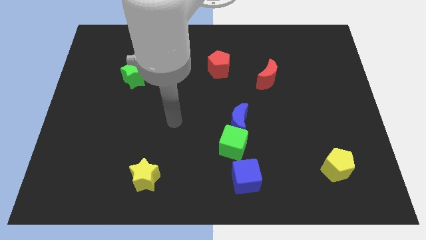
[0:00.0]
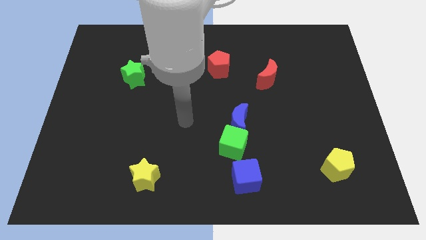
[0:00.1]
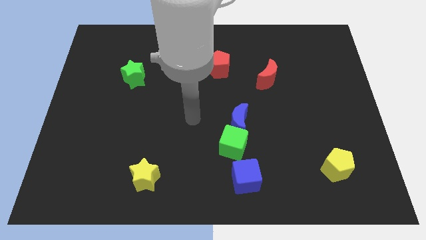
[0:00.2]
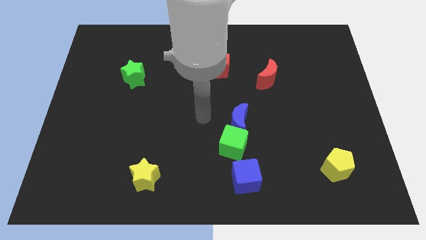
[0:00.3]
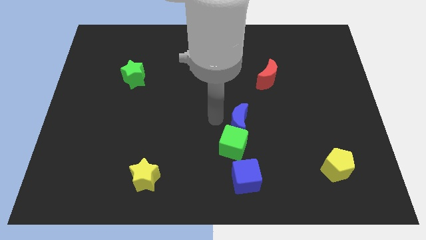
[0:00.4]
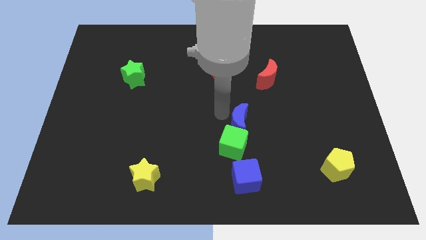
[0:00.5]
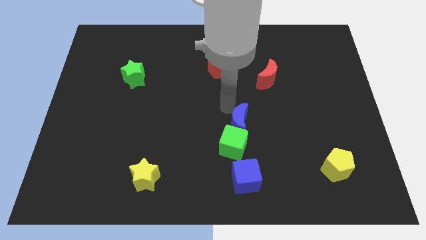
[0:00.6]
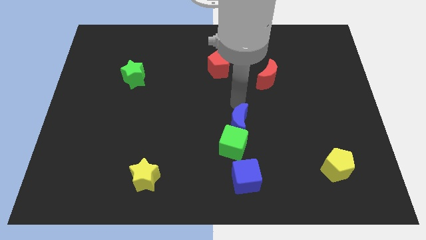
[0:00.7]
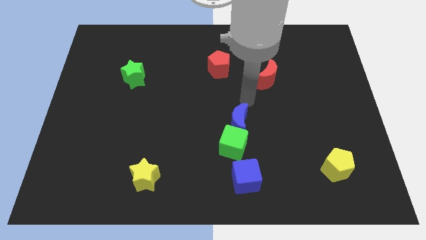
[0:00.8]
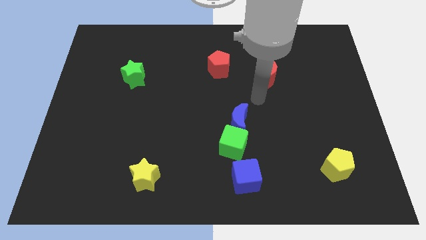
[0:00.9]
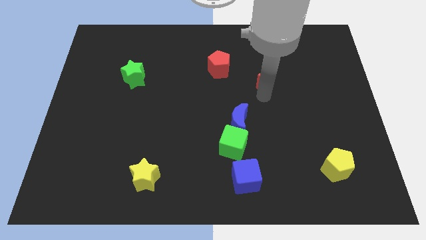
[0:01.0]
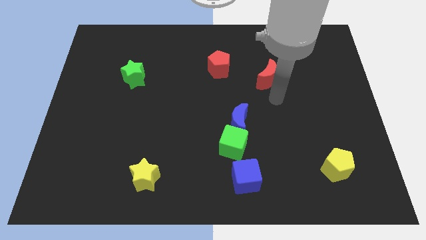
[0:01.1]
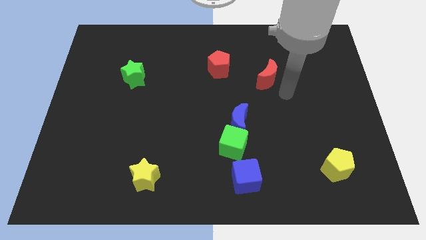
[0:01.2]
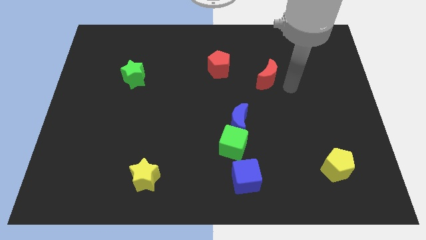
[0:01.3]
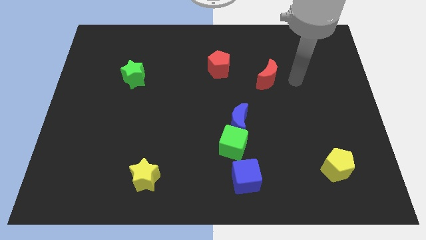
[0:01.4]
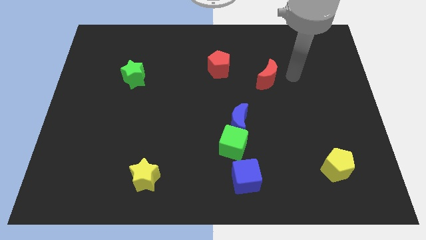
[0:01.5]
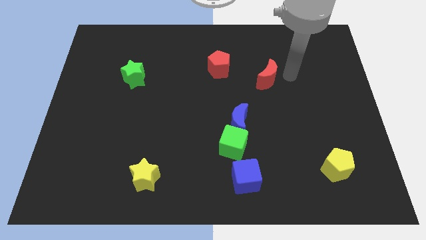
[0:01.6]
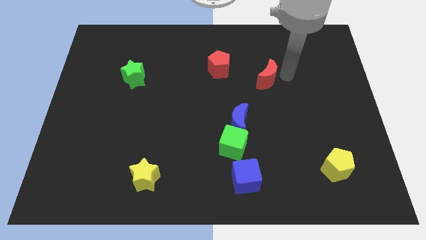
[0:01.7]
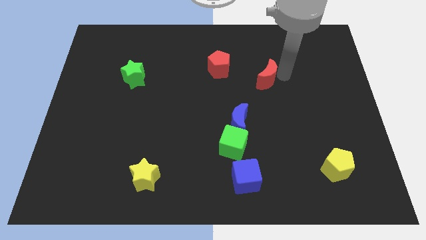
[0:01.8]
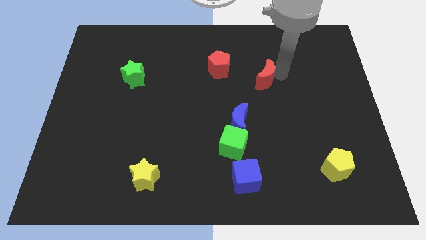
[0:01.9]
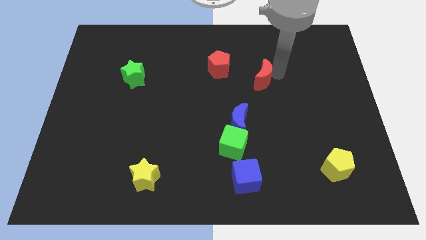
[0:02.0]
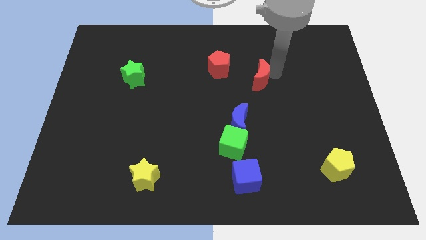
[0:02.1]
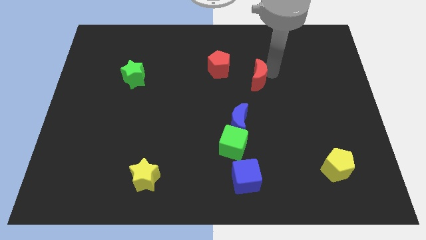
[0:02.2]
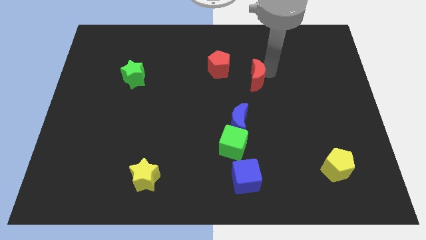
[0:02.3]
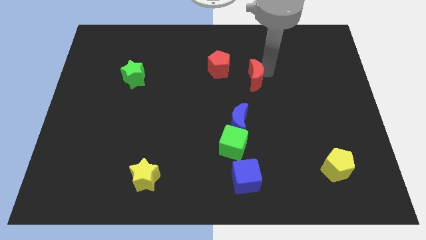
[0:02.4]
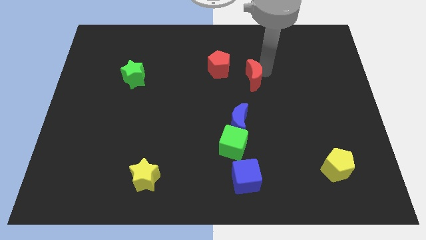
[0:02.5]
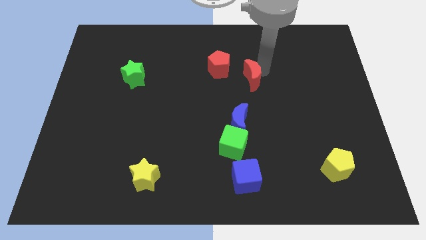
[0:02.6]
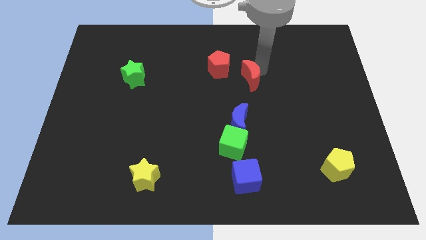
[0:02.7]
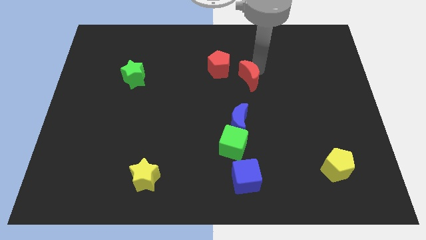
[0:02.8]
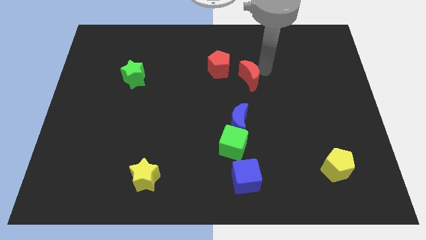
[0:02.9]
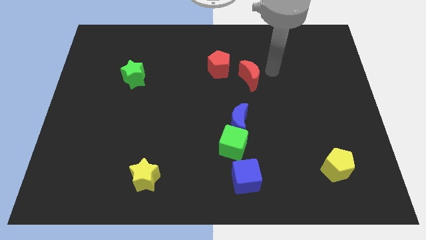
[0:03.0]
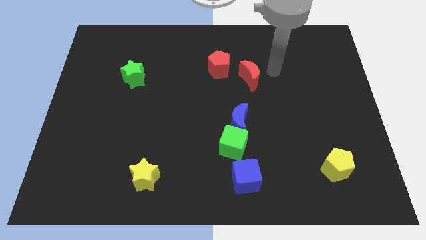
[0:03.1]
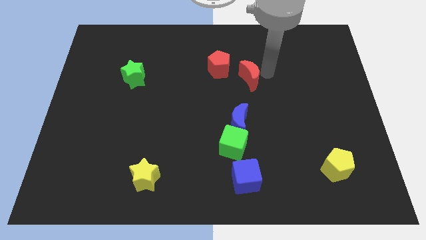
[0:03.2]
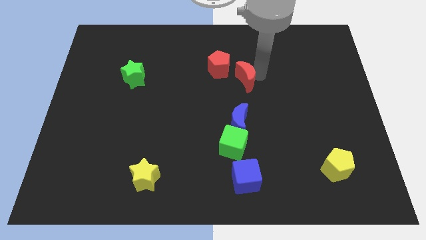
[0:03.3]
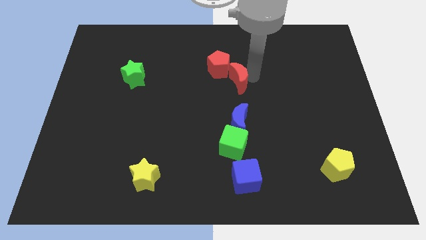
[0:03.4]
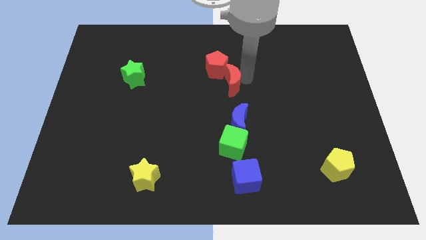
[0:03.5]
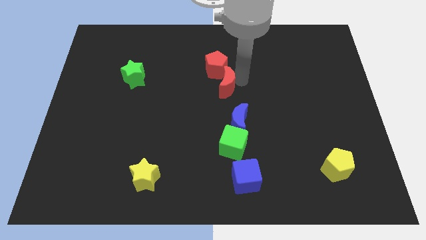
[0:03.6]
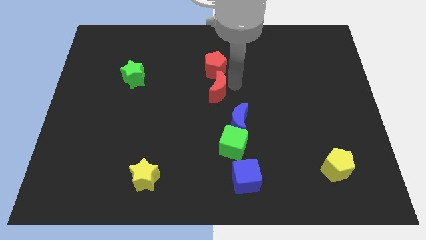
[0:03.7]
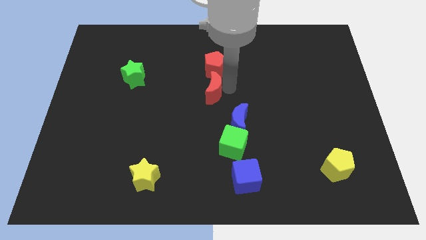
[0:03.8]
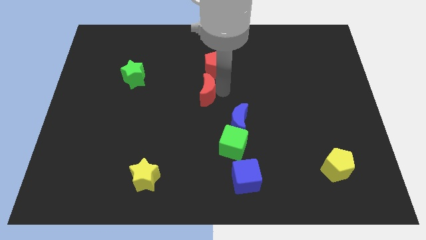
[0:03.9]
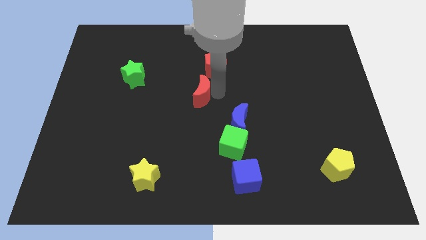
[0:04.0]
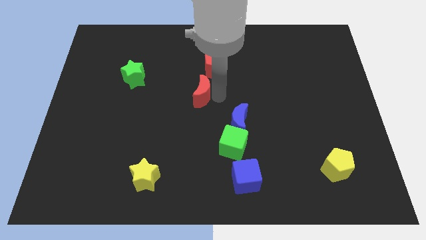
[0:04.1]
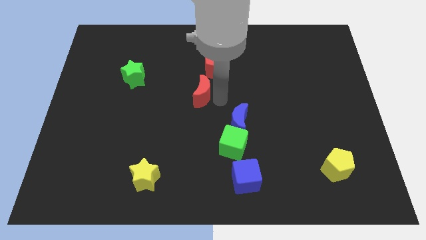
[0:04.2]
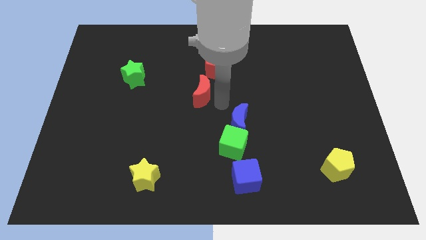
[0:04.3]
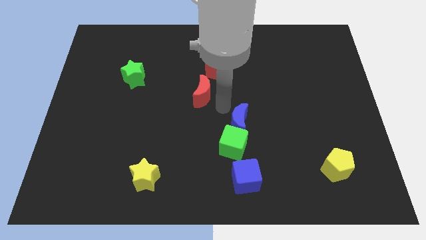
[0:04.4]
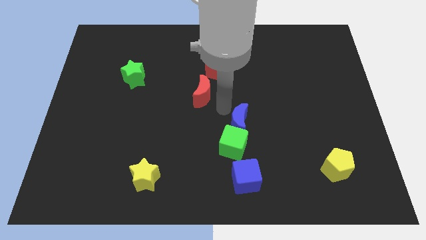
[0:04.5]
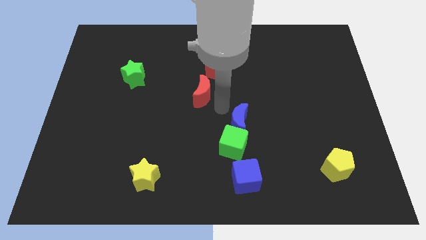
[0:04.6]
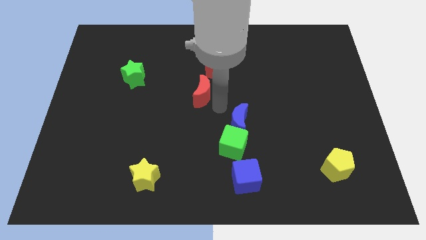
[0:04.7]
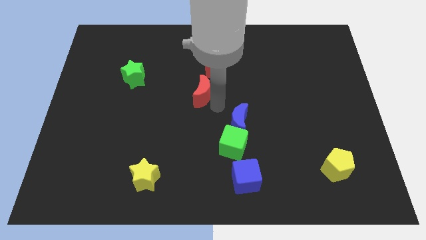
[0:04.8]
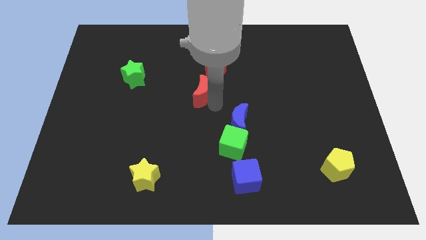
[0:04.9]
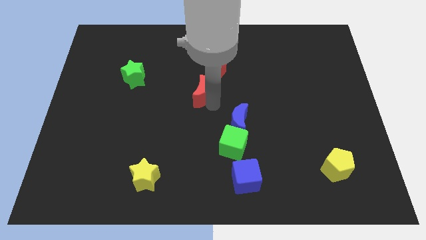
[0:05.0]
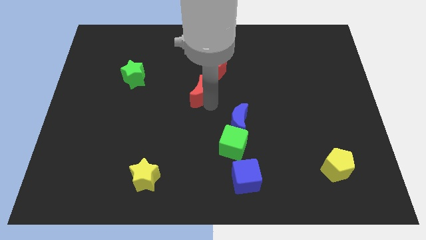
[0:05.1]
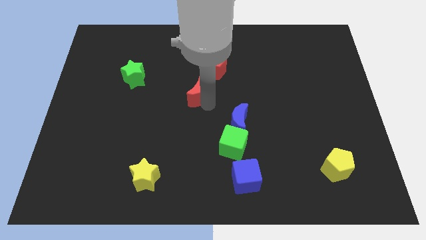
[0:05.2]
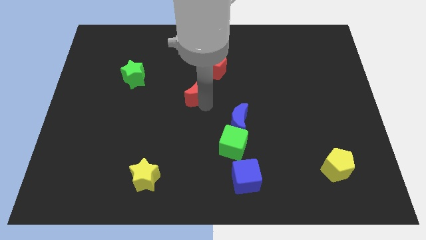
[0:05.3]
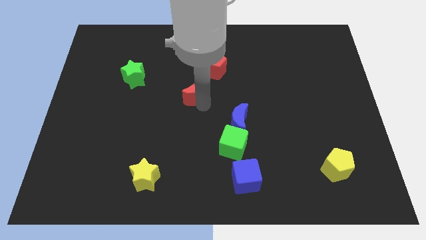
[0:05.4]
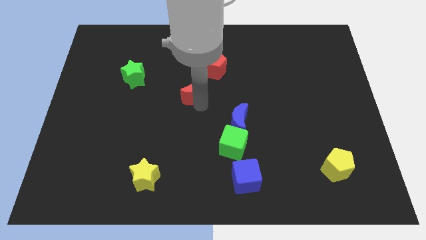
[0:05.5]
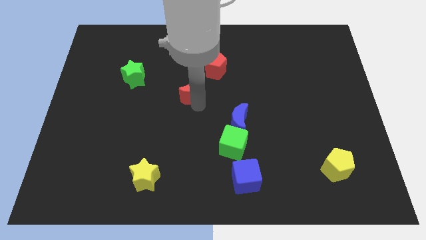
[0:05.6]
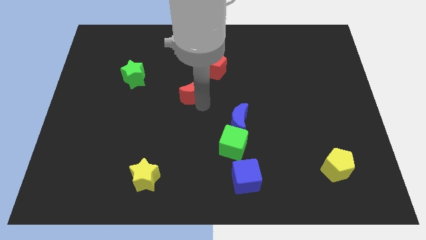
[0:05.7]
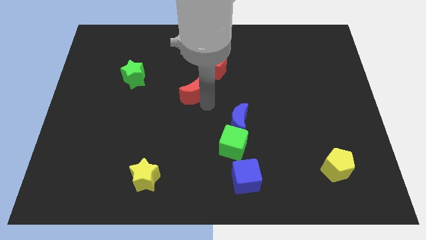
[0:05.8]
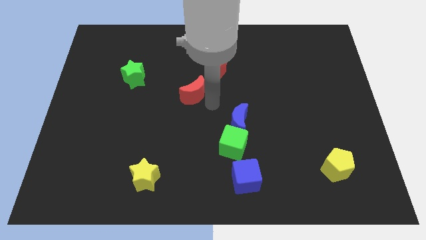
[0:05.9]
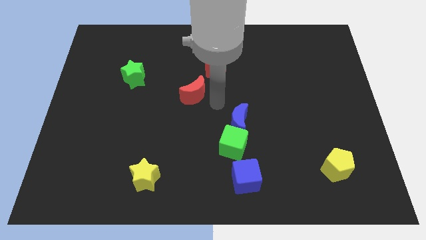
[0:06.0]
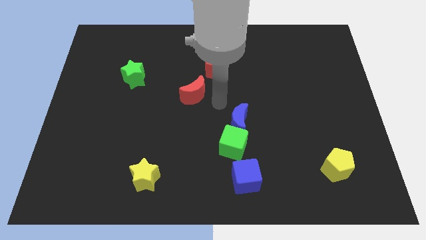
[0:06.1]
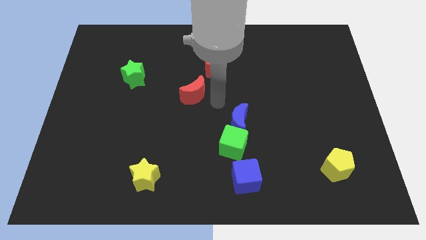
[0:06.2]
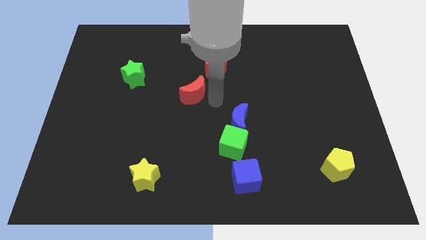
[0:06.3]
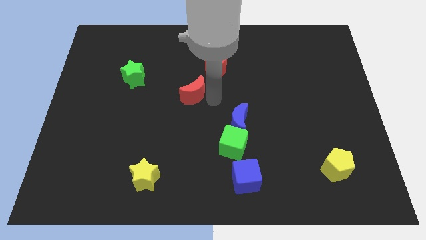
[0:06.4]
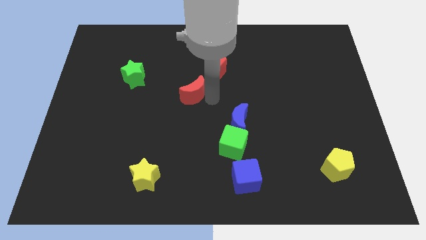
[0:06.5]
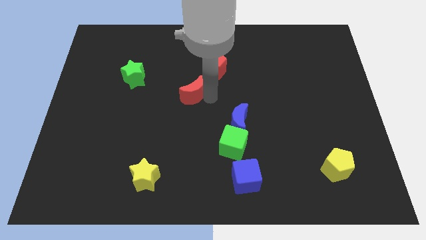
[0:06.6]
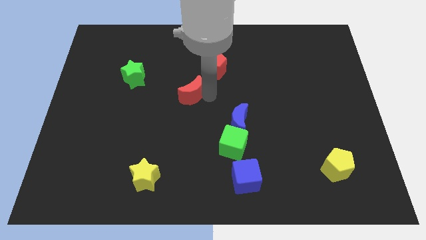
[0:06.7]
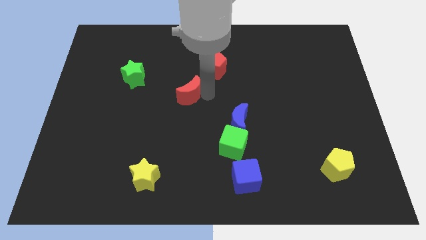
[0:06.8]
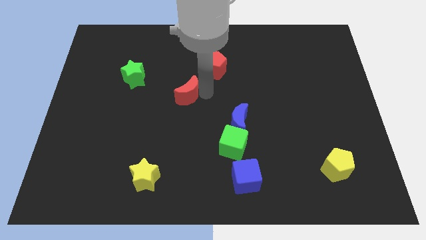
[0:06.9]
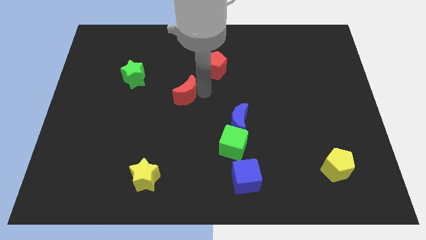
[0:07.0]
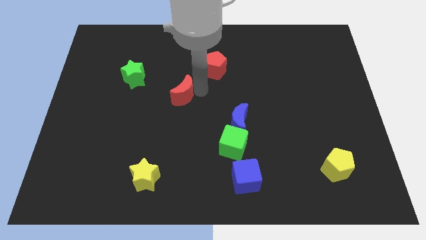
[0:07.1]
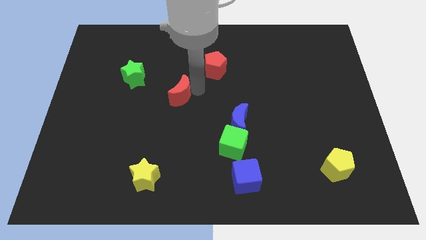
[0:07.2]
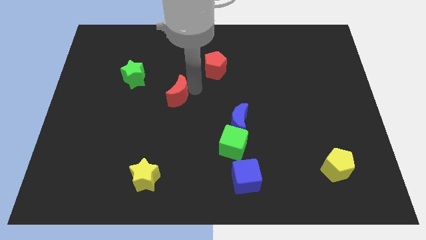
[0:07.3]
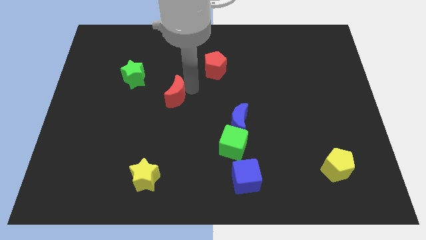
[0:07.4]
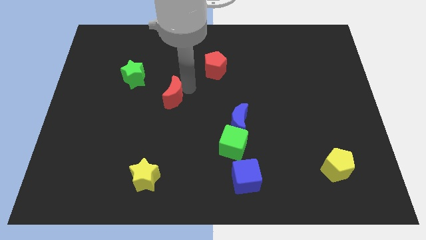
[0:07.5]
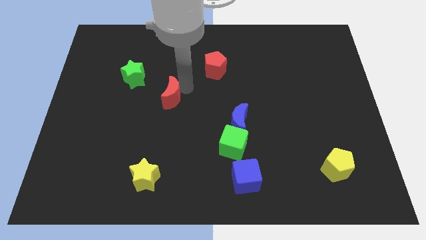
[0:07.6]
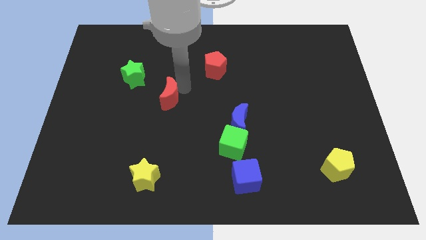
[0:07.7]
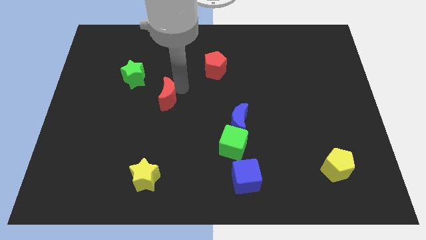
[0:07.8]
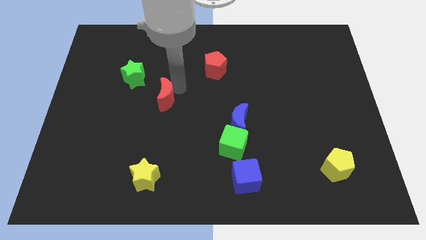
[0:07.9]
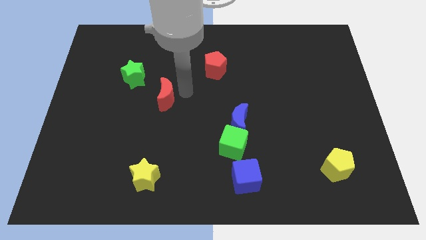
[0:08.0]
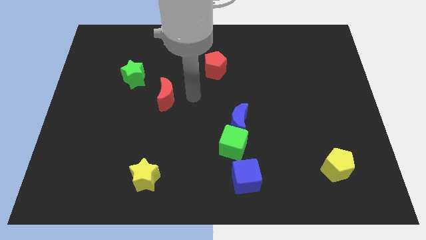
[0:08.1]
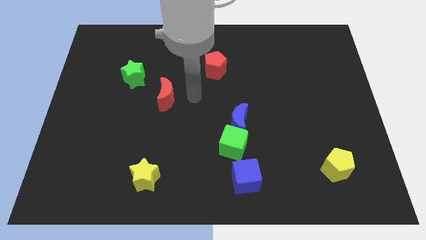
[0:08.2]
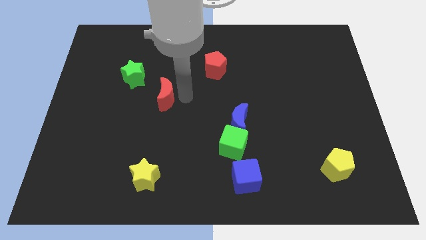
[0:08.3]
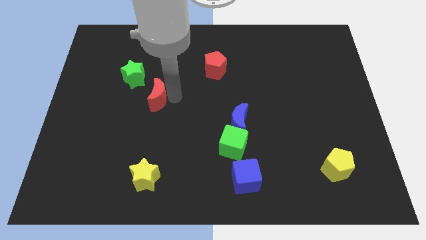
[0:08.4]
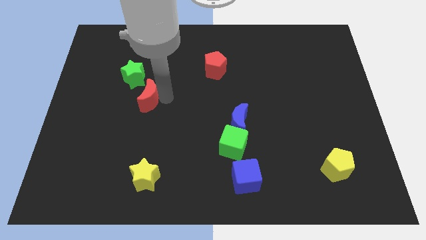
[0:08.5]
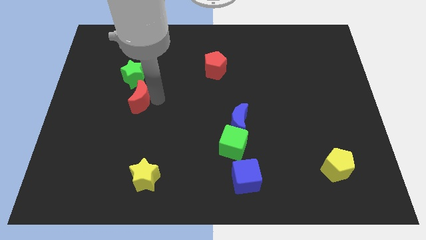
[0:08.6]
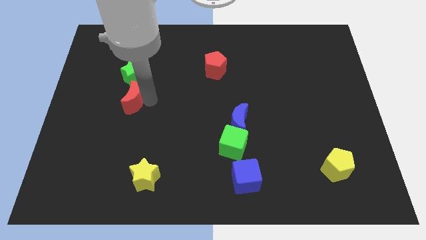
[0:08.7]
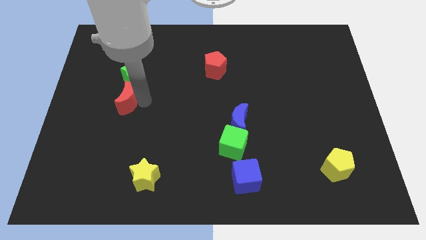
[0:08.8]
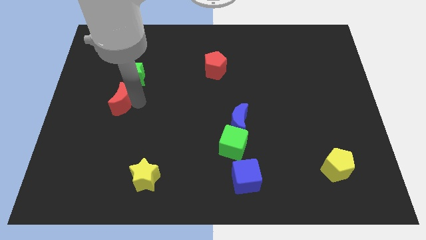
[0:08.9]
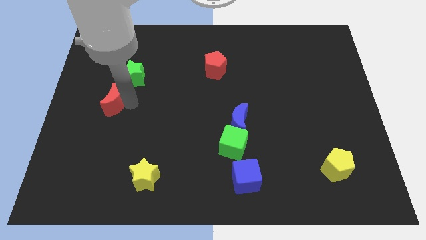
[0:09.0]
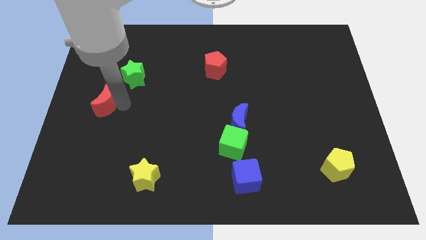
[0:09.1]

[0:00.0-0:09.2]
move the red moon to the left side
